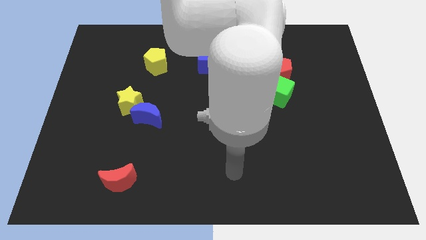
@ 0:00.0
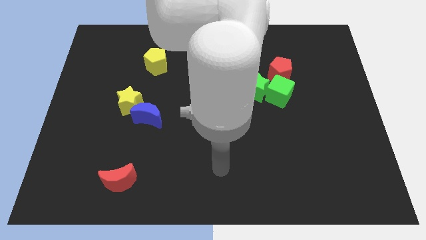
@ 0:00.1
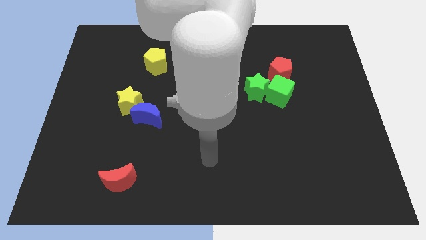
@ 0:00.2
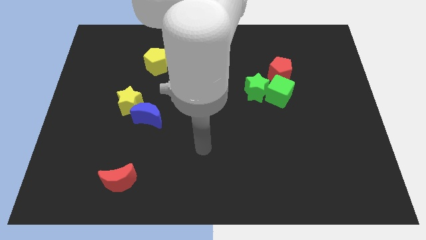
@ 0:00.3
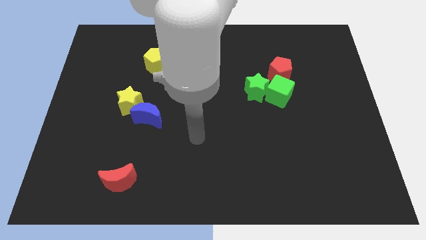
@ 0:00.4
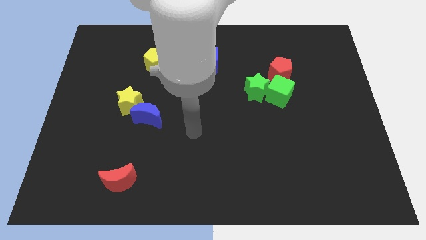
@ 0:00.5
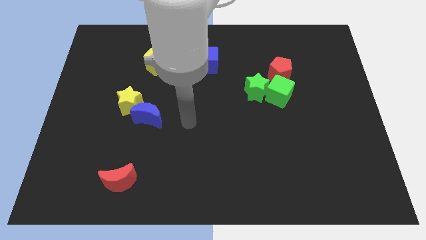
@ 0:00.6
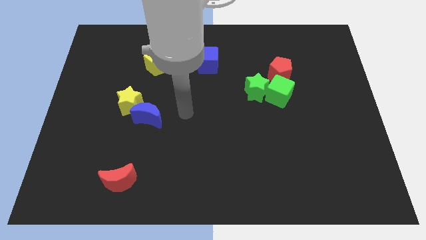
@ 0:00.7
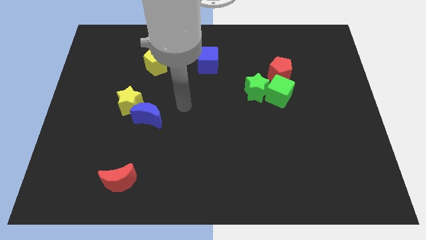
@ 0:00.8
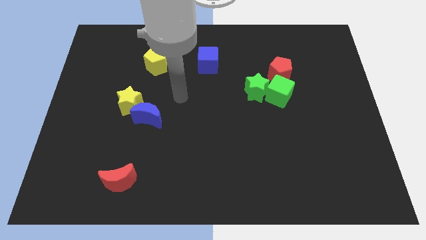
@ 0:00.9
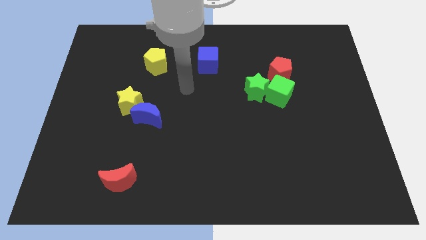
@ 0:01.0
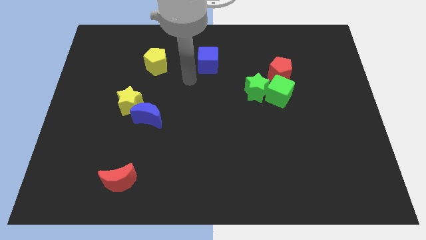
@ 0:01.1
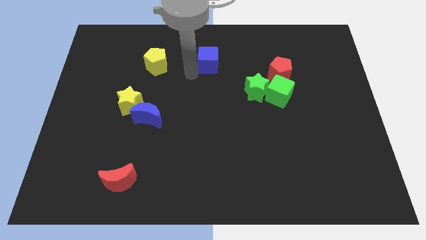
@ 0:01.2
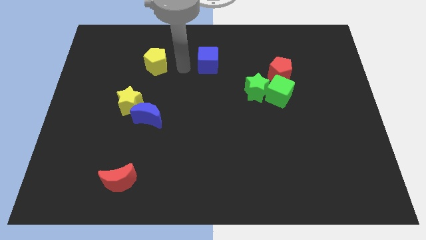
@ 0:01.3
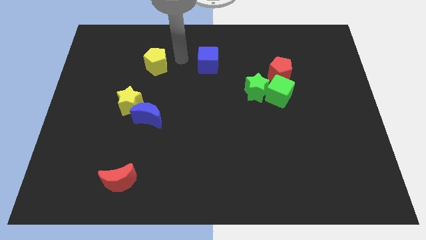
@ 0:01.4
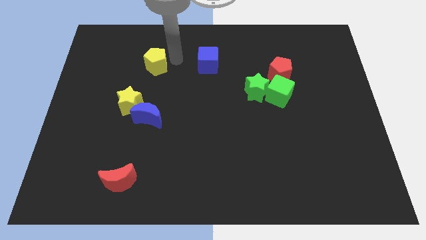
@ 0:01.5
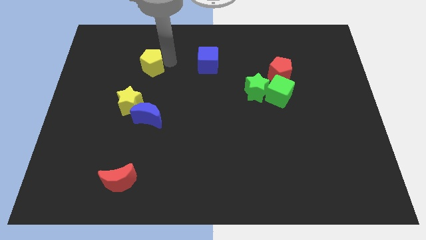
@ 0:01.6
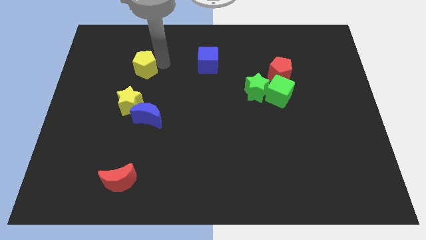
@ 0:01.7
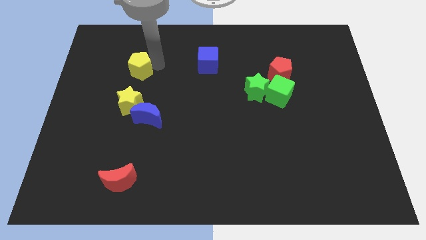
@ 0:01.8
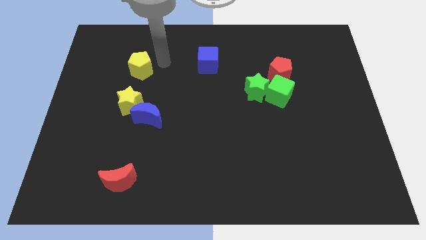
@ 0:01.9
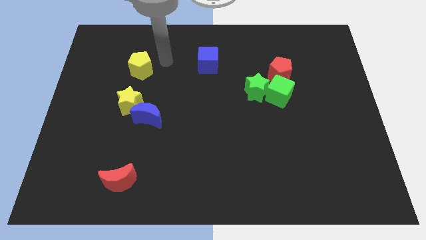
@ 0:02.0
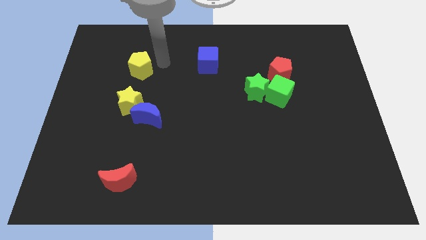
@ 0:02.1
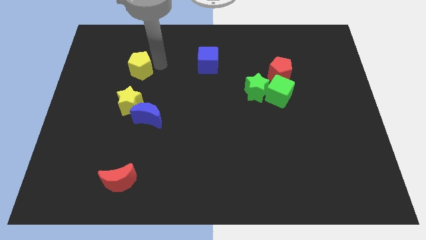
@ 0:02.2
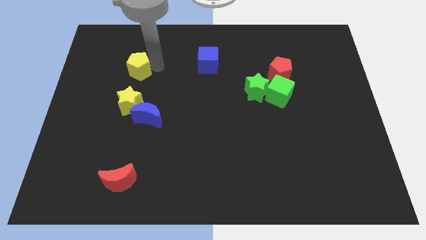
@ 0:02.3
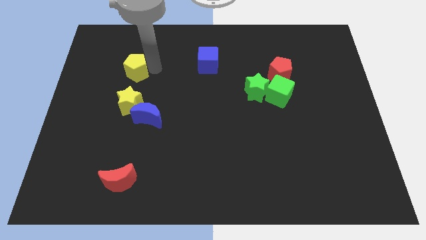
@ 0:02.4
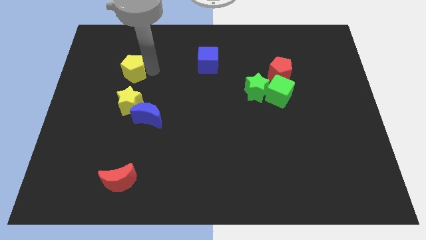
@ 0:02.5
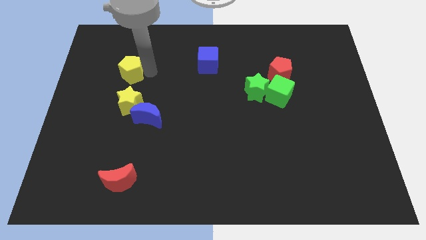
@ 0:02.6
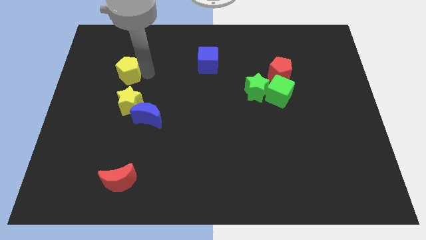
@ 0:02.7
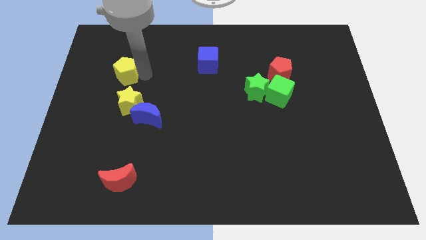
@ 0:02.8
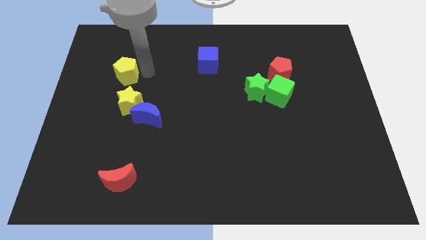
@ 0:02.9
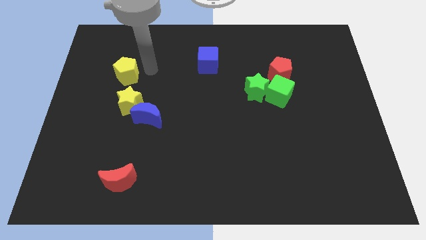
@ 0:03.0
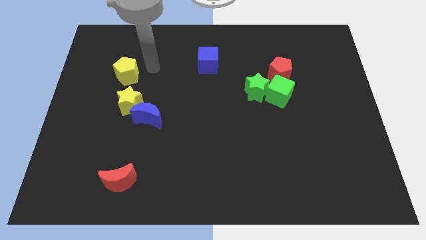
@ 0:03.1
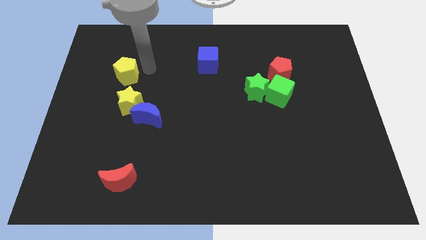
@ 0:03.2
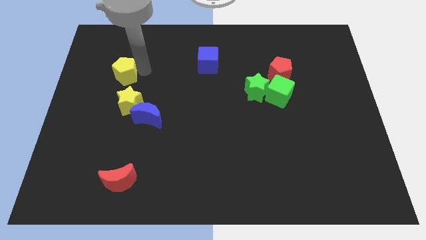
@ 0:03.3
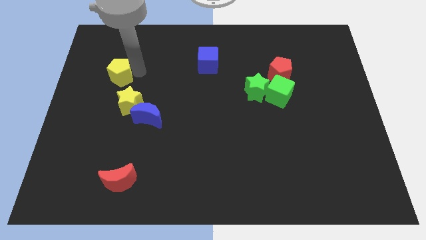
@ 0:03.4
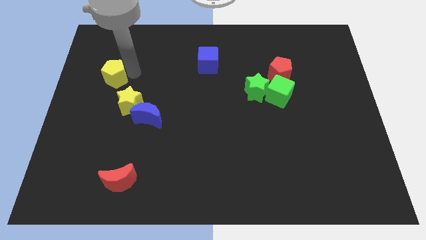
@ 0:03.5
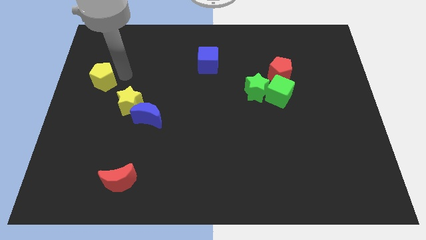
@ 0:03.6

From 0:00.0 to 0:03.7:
move the yellow pentagon to the left side

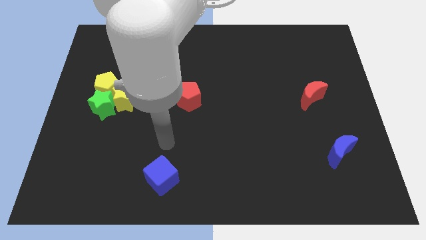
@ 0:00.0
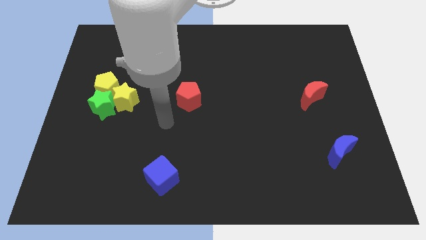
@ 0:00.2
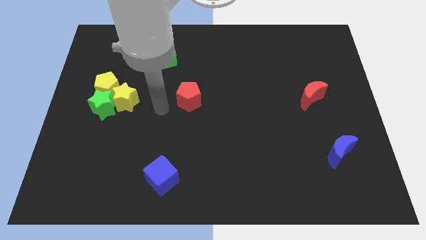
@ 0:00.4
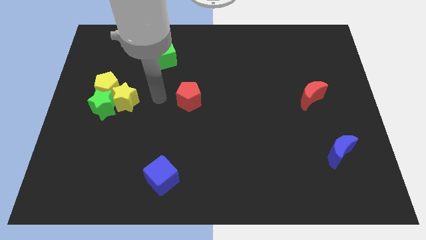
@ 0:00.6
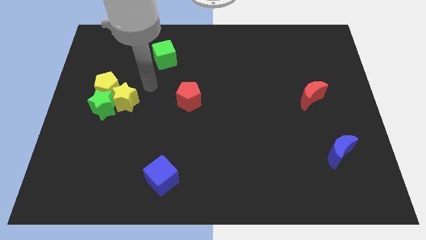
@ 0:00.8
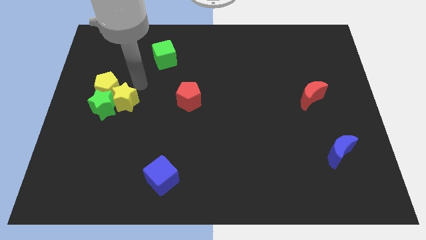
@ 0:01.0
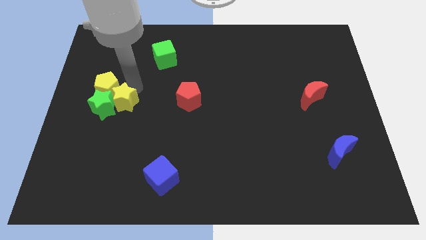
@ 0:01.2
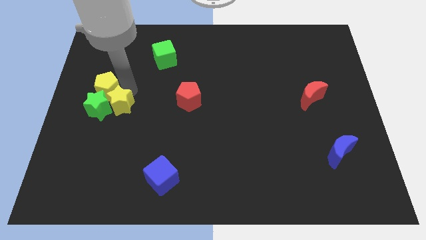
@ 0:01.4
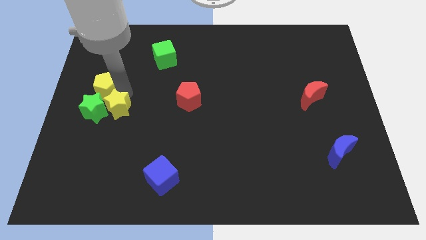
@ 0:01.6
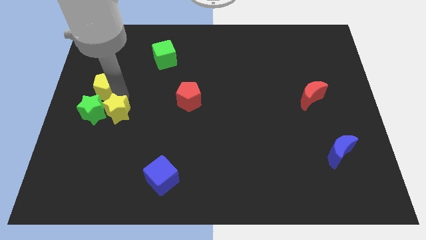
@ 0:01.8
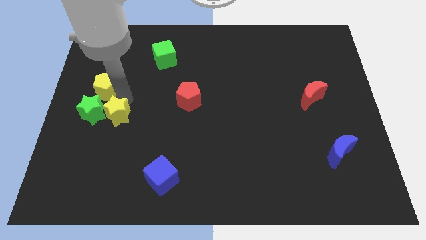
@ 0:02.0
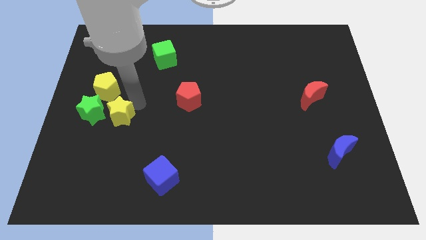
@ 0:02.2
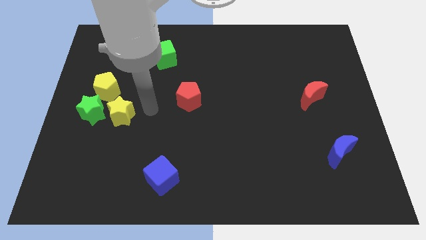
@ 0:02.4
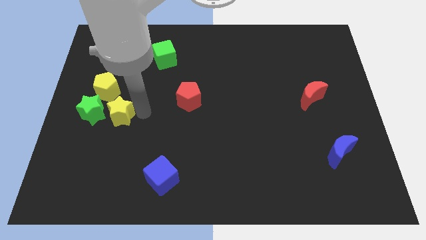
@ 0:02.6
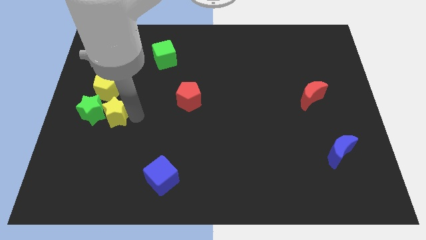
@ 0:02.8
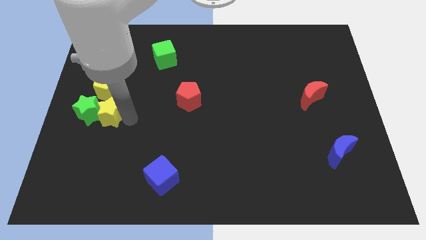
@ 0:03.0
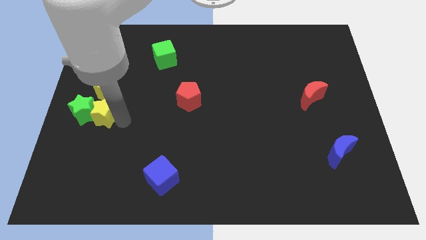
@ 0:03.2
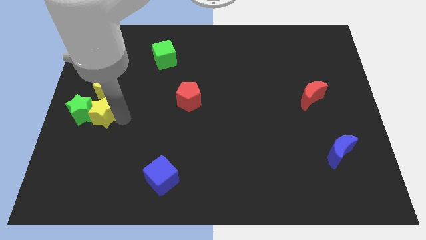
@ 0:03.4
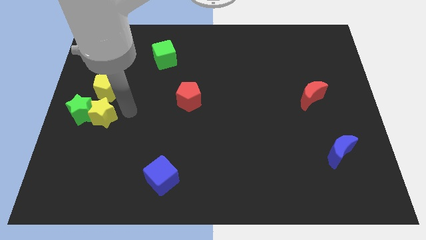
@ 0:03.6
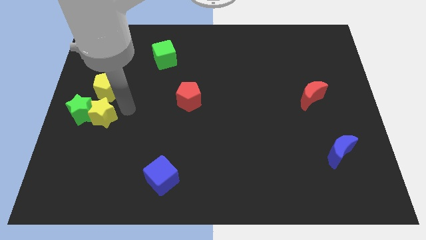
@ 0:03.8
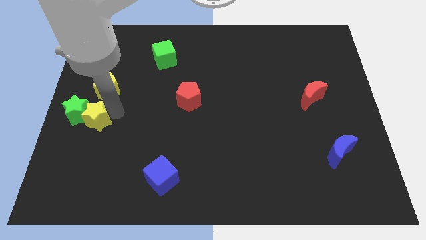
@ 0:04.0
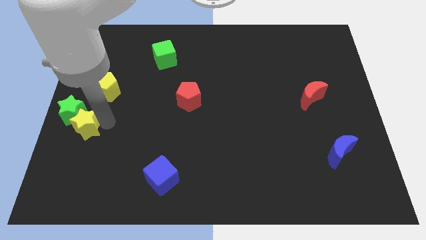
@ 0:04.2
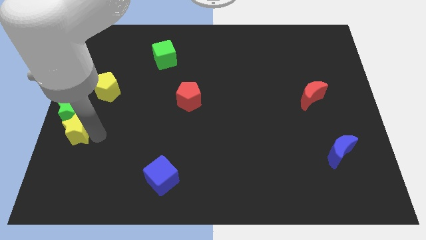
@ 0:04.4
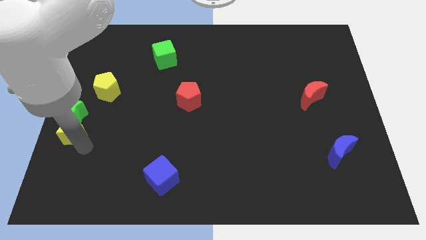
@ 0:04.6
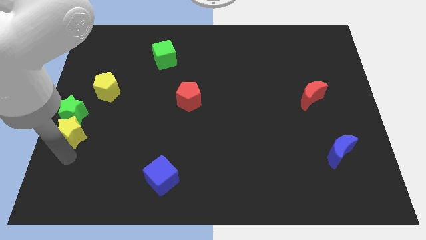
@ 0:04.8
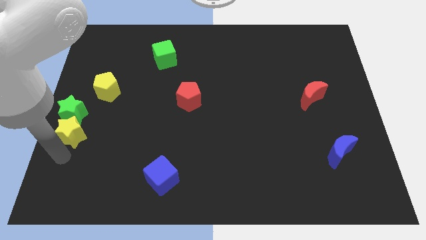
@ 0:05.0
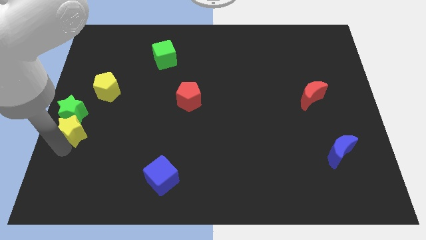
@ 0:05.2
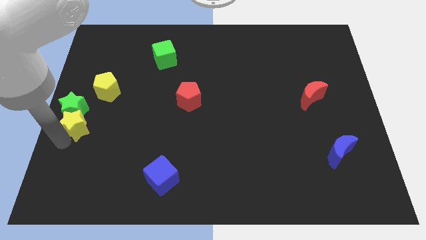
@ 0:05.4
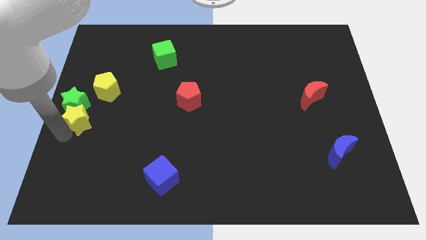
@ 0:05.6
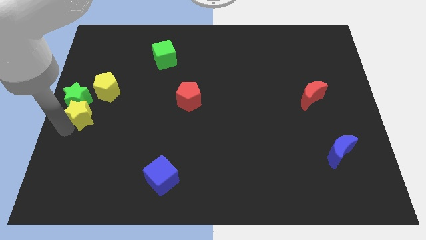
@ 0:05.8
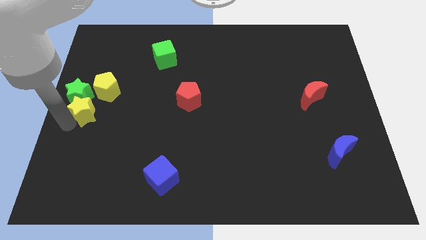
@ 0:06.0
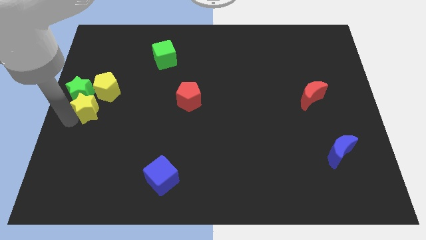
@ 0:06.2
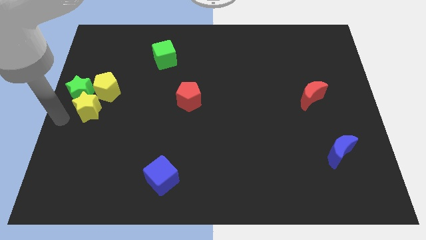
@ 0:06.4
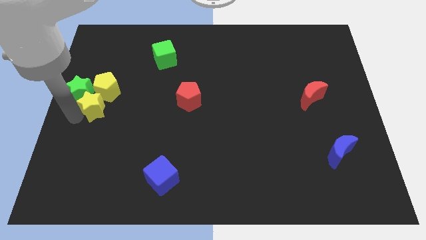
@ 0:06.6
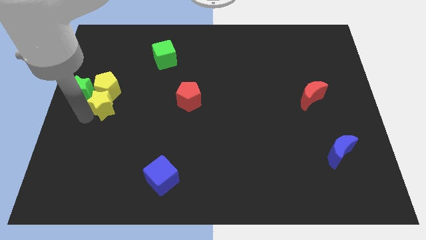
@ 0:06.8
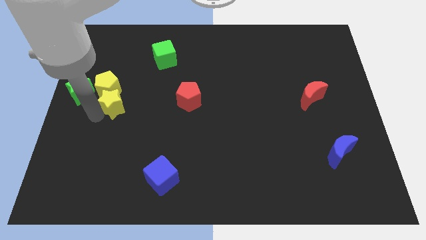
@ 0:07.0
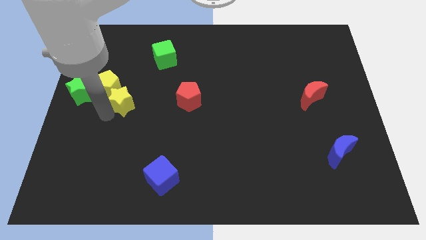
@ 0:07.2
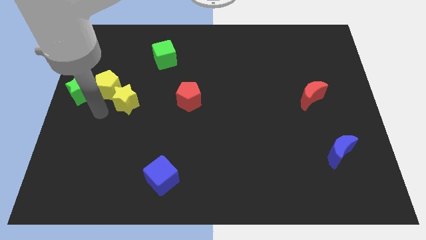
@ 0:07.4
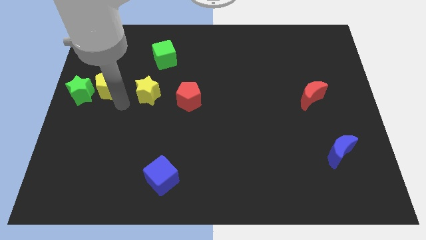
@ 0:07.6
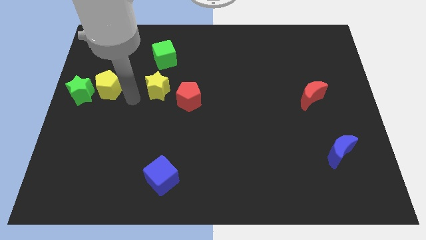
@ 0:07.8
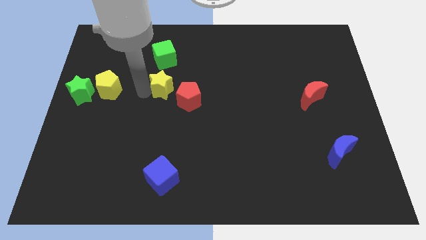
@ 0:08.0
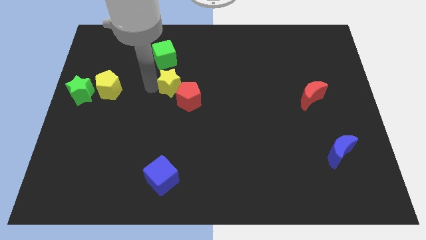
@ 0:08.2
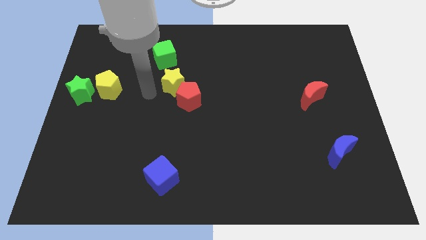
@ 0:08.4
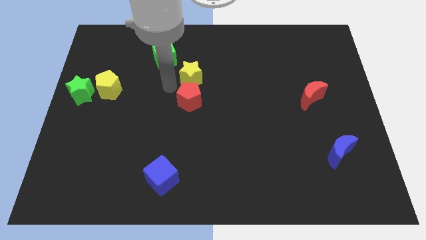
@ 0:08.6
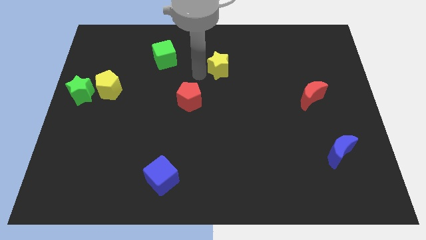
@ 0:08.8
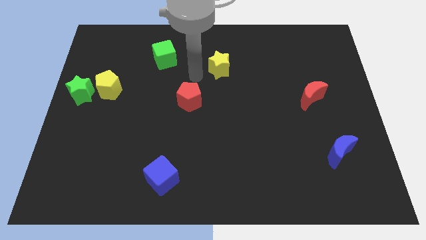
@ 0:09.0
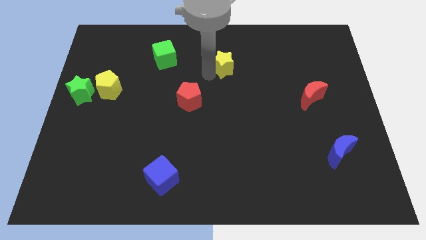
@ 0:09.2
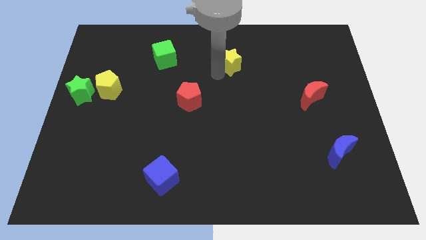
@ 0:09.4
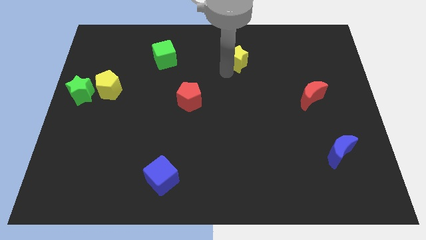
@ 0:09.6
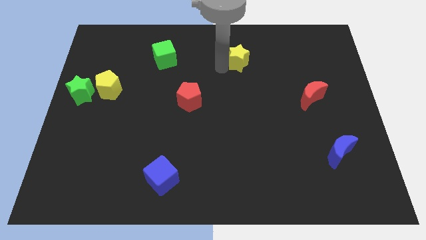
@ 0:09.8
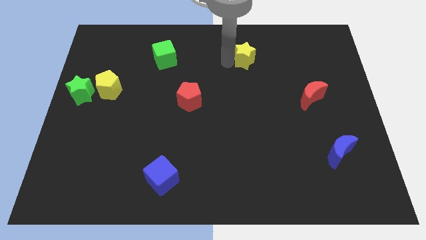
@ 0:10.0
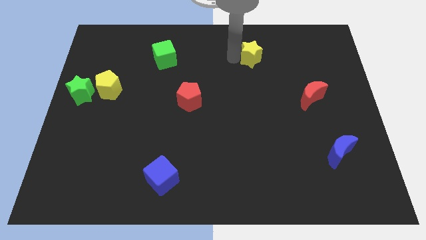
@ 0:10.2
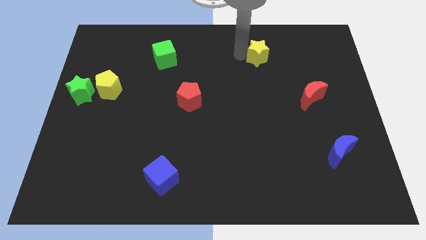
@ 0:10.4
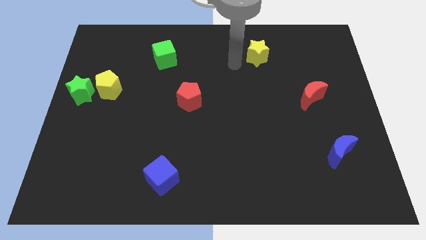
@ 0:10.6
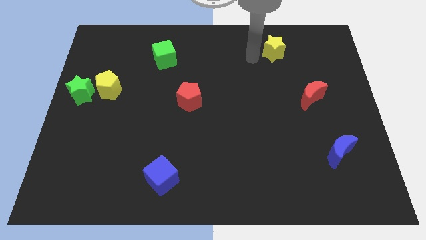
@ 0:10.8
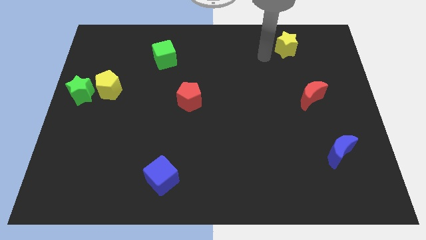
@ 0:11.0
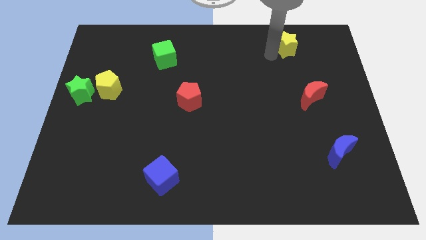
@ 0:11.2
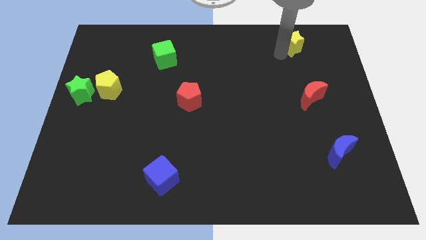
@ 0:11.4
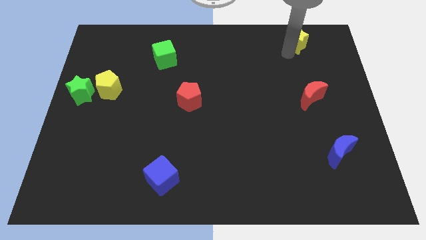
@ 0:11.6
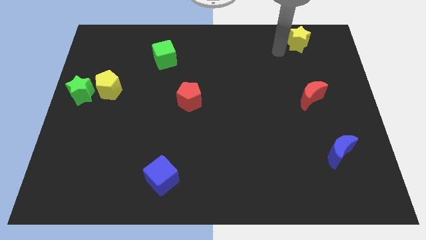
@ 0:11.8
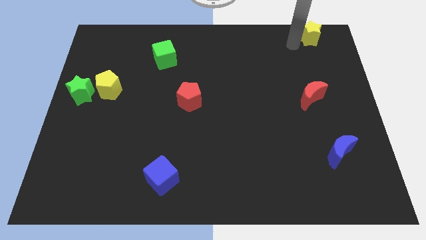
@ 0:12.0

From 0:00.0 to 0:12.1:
slide the yellow star to the top right
